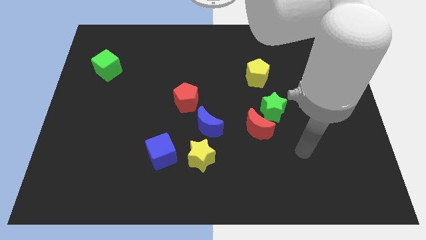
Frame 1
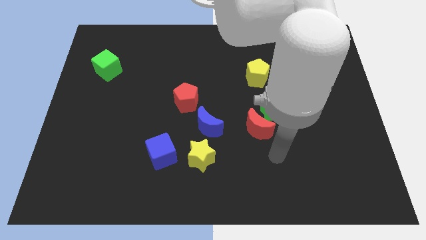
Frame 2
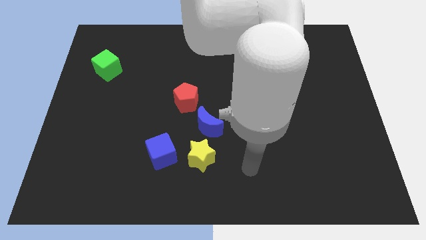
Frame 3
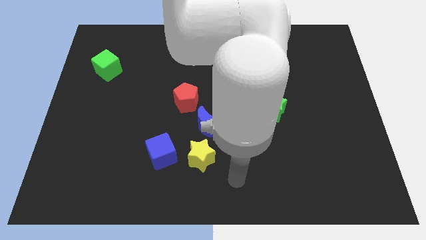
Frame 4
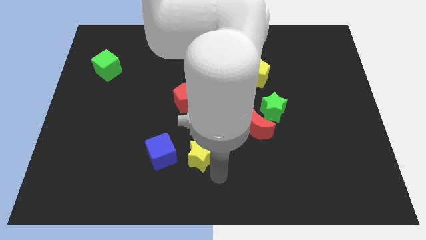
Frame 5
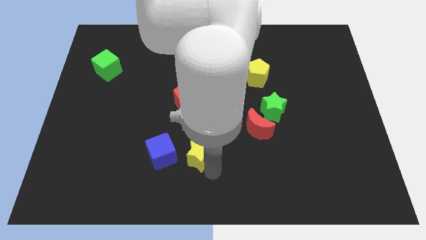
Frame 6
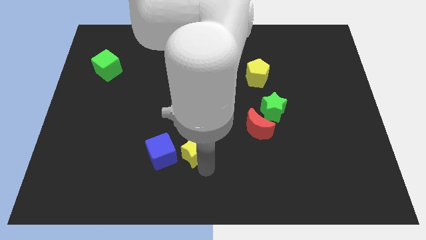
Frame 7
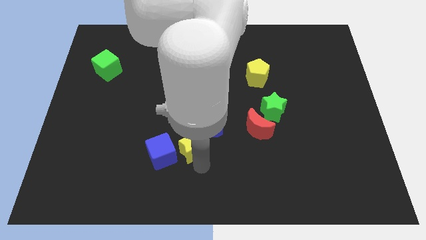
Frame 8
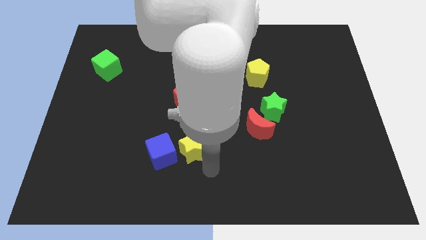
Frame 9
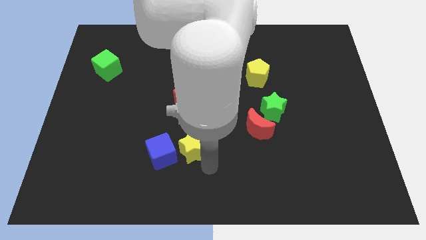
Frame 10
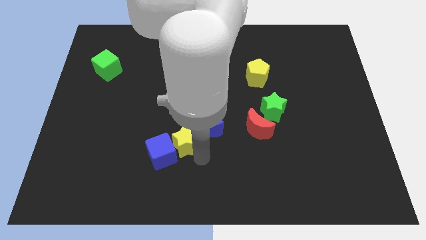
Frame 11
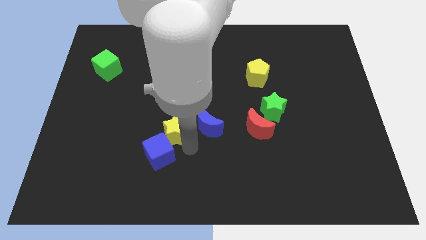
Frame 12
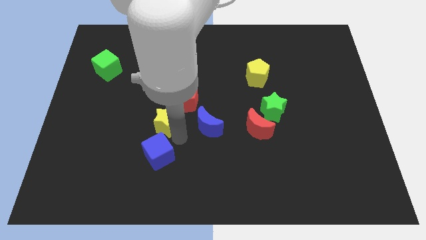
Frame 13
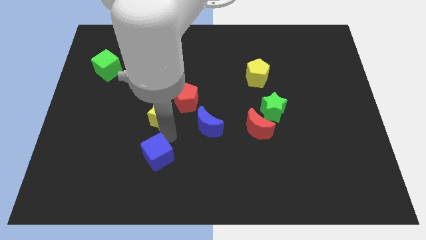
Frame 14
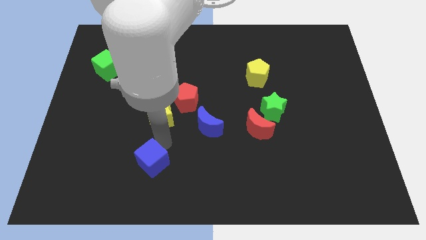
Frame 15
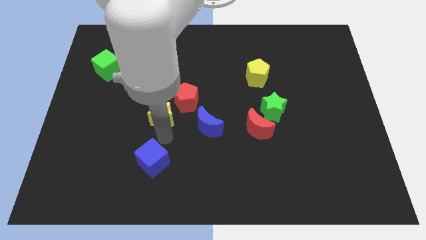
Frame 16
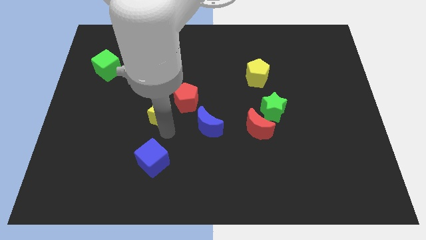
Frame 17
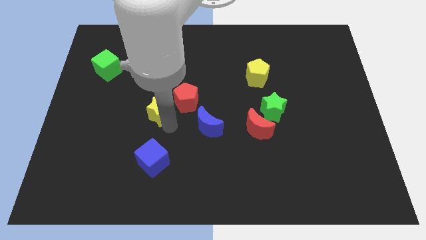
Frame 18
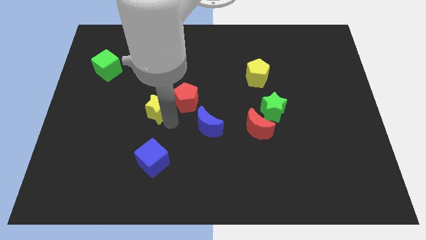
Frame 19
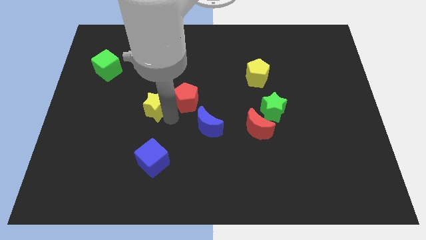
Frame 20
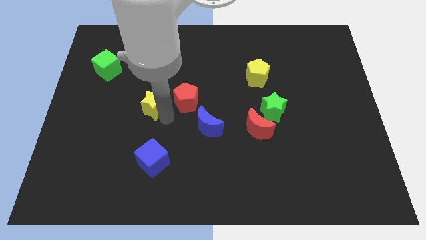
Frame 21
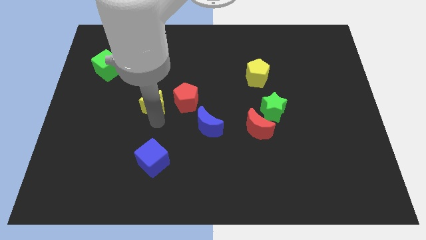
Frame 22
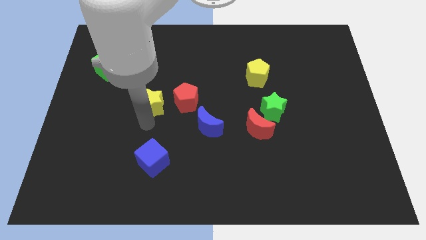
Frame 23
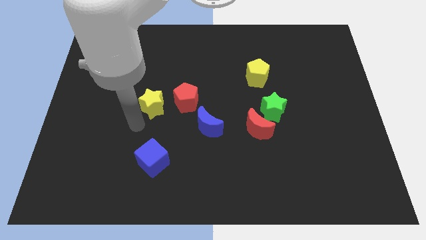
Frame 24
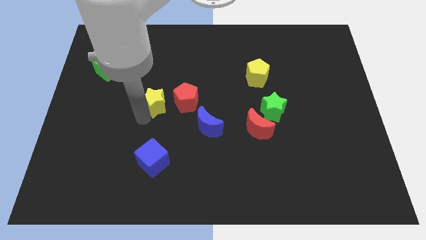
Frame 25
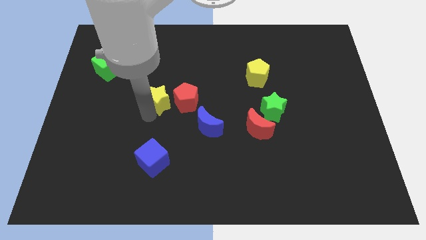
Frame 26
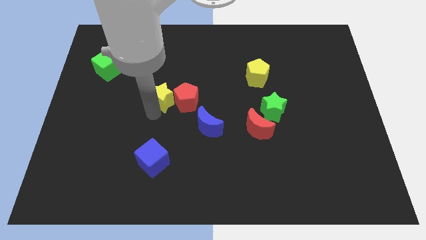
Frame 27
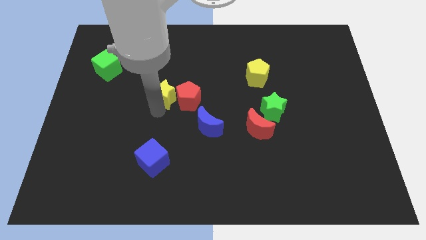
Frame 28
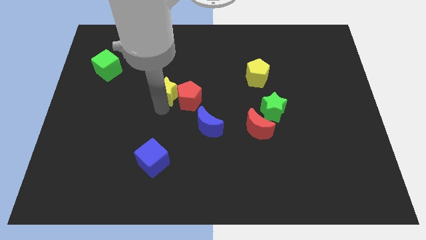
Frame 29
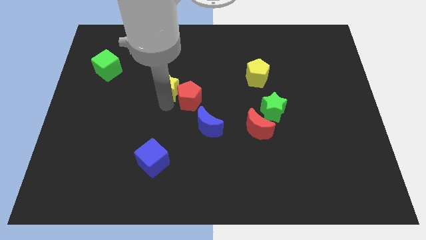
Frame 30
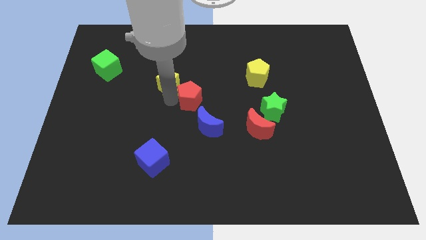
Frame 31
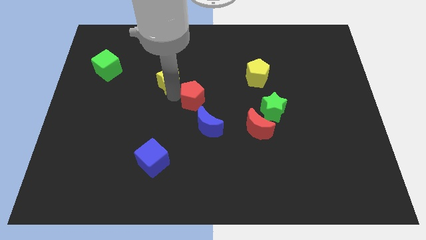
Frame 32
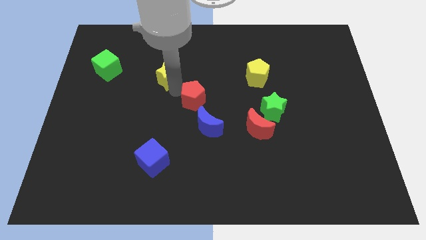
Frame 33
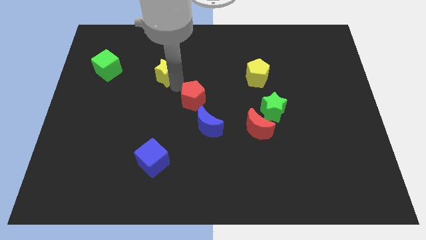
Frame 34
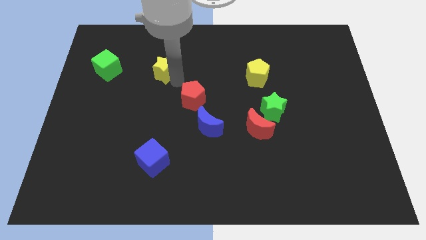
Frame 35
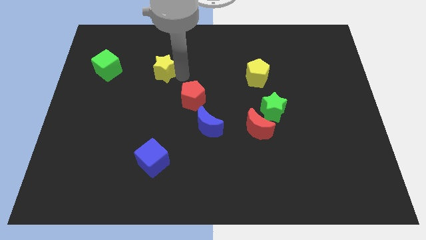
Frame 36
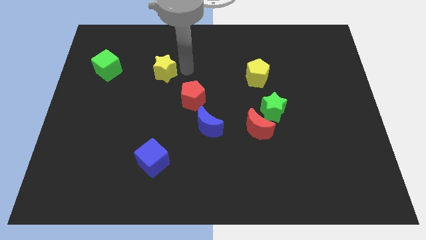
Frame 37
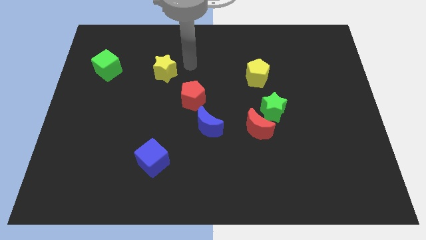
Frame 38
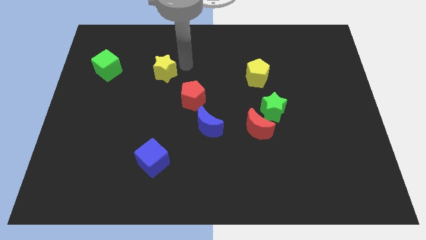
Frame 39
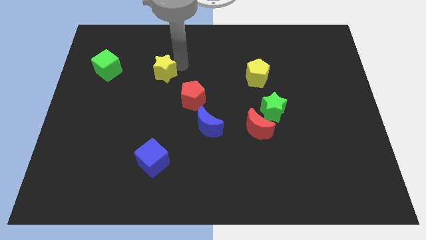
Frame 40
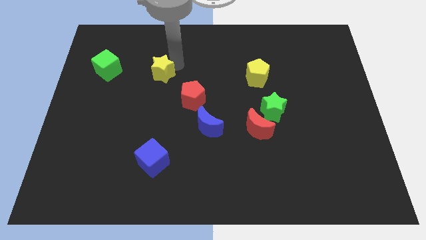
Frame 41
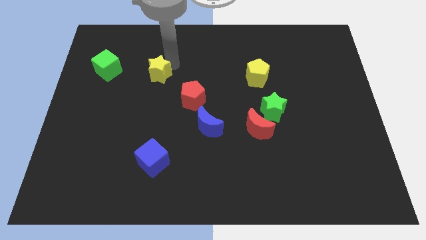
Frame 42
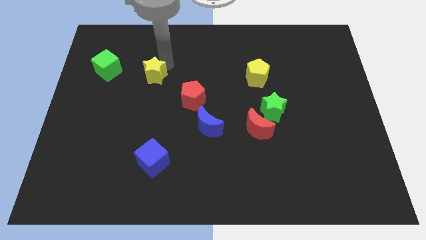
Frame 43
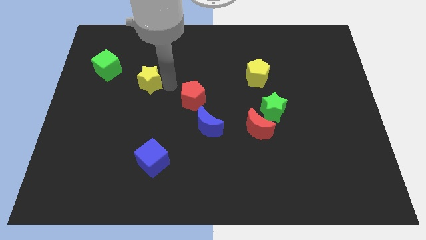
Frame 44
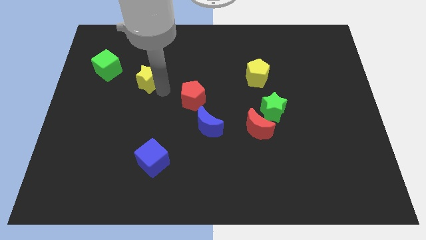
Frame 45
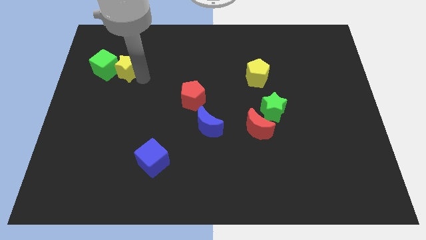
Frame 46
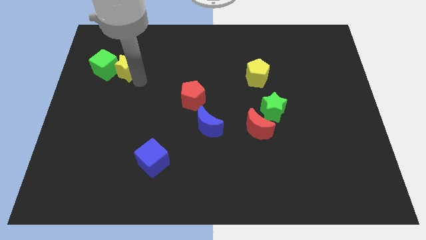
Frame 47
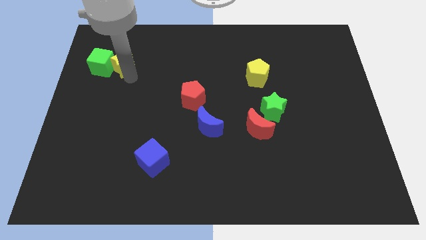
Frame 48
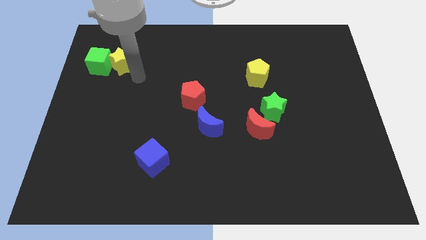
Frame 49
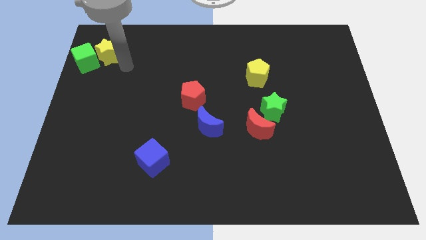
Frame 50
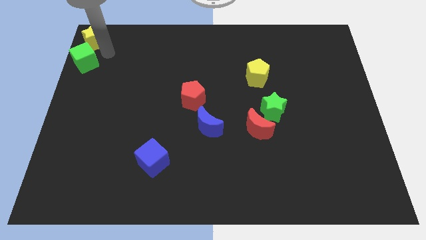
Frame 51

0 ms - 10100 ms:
move the yellow star to the top left

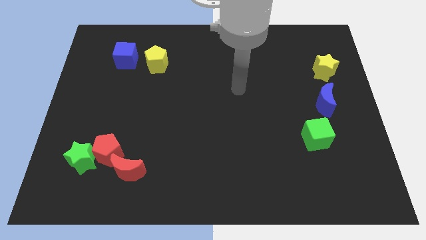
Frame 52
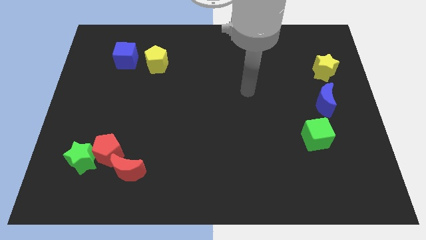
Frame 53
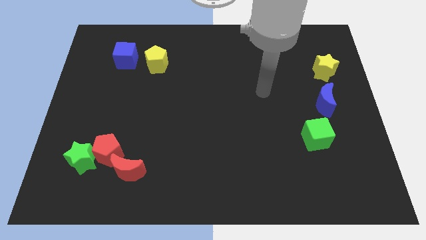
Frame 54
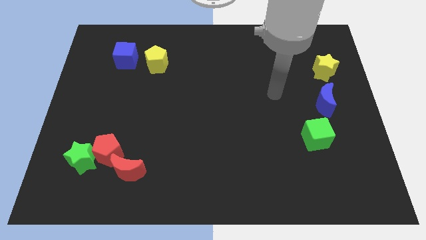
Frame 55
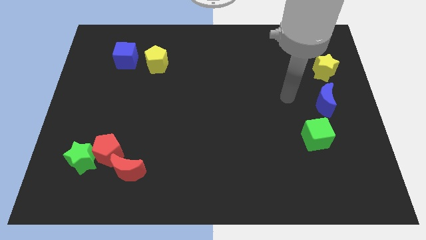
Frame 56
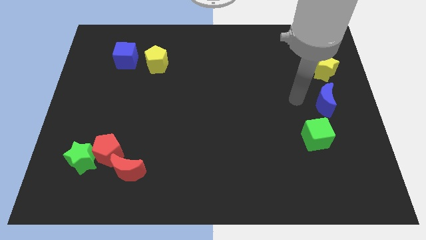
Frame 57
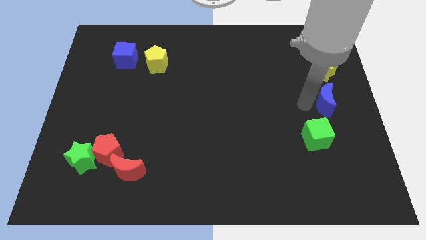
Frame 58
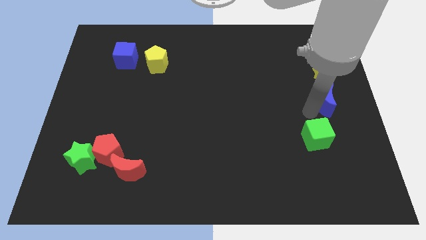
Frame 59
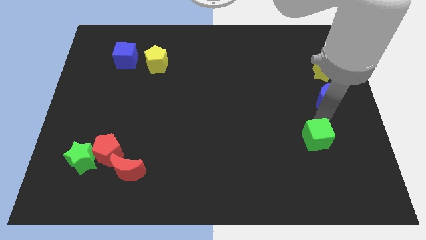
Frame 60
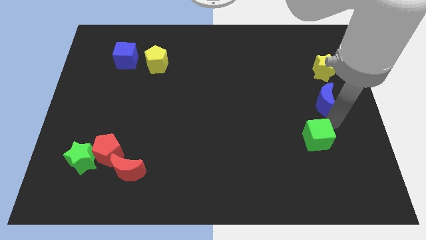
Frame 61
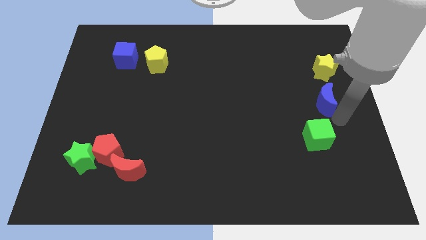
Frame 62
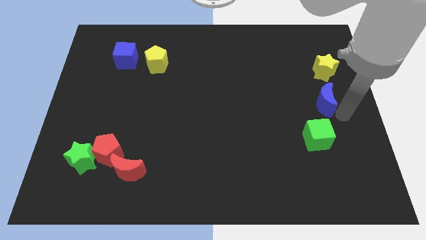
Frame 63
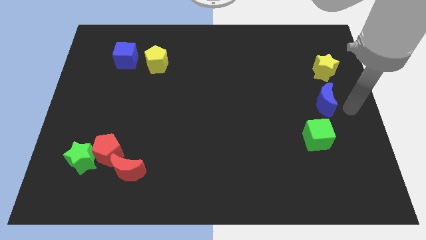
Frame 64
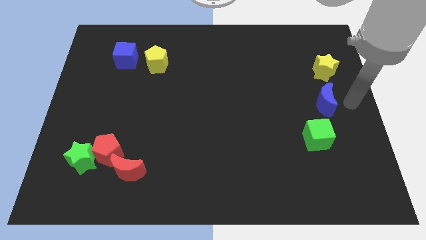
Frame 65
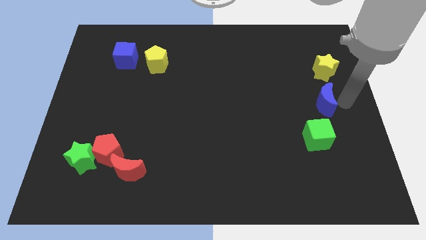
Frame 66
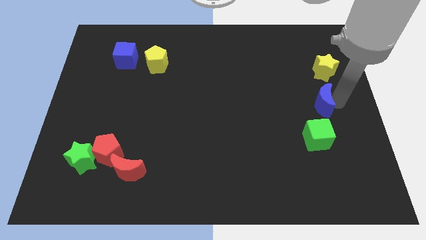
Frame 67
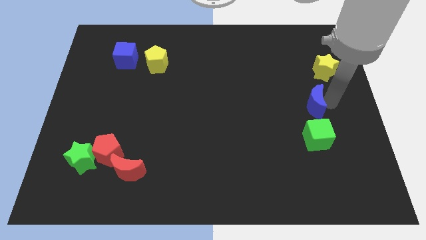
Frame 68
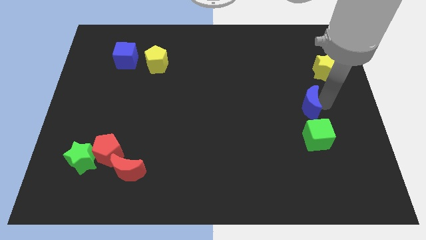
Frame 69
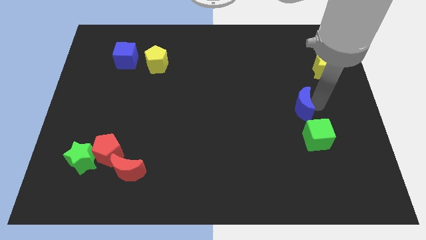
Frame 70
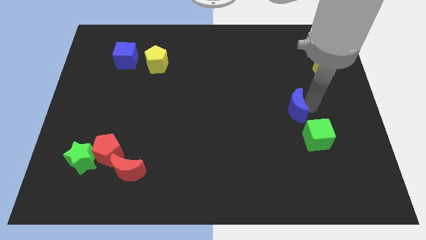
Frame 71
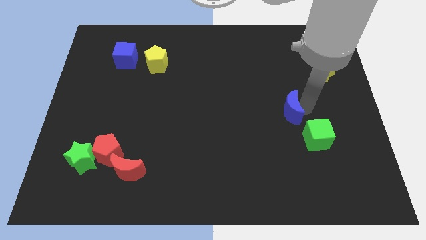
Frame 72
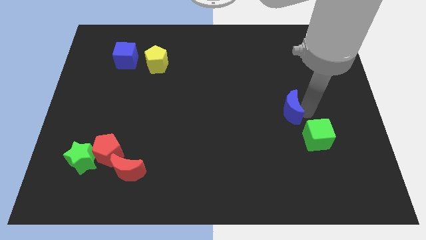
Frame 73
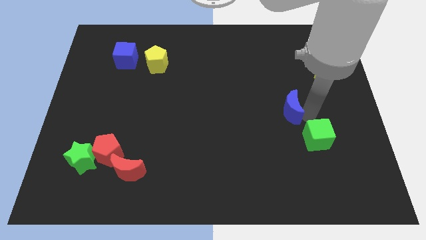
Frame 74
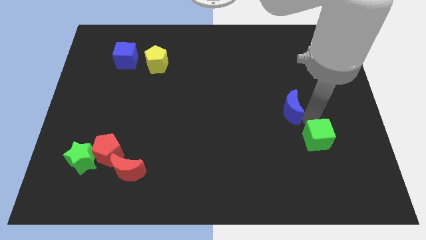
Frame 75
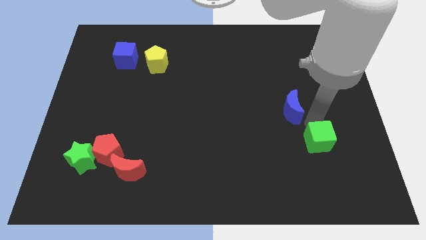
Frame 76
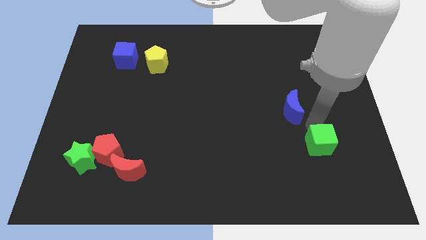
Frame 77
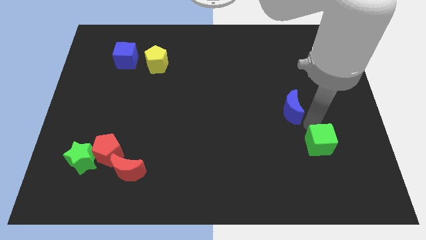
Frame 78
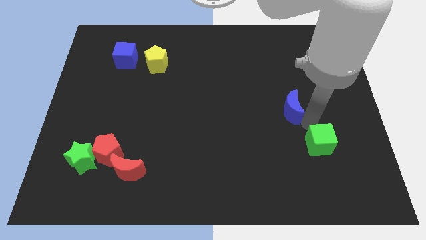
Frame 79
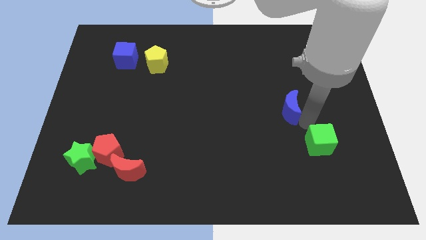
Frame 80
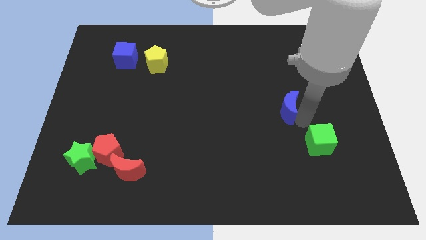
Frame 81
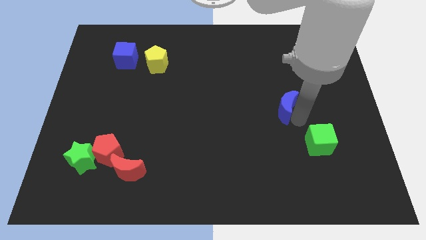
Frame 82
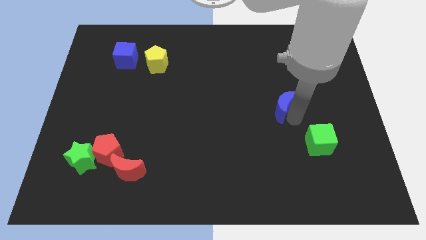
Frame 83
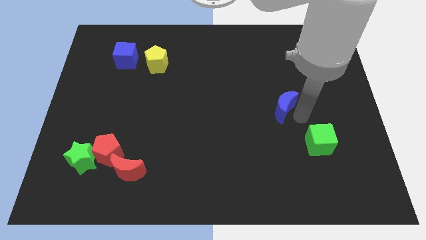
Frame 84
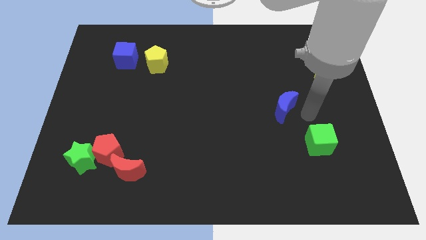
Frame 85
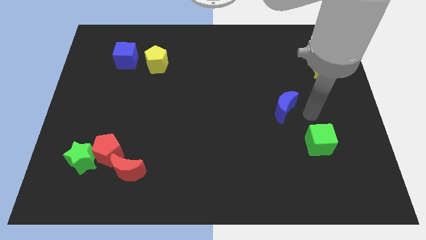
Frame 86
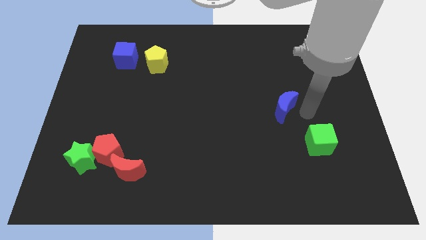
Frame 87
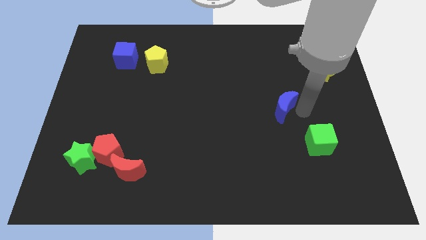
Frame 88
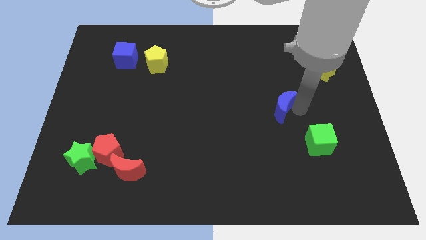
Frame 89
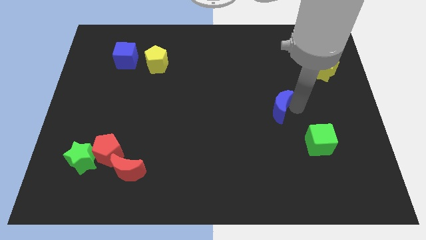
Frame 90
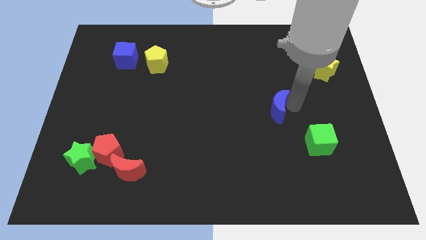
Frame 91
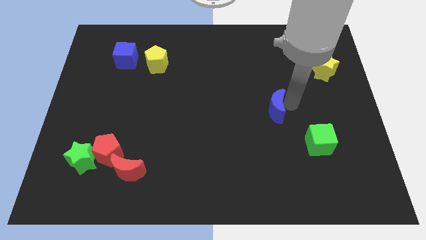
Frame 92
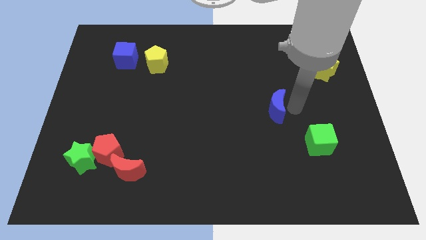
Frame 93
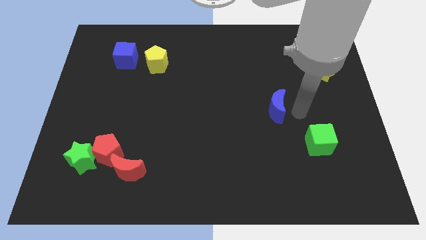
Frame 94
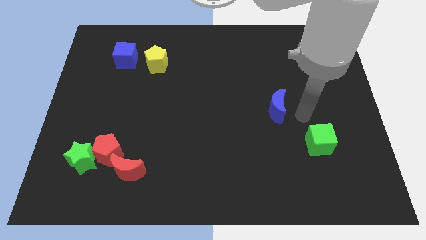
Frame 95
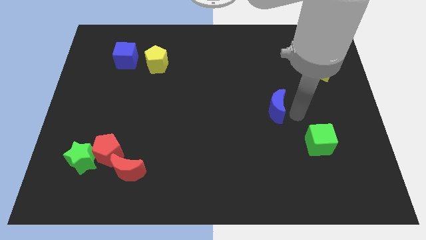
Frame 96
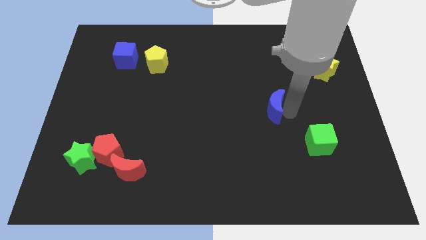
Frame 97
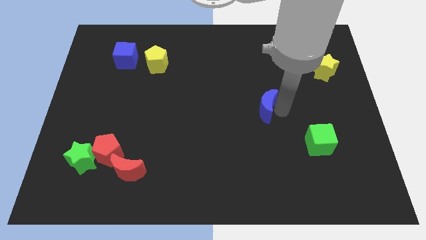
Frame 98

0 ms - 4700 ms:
slide the blue moon to the center
